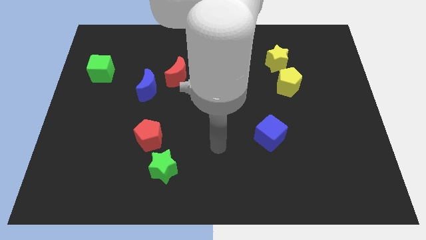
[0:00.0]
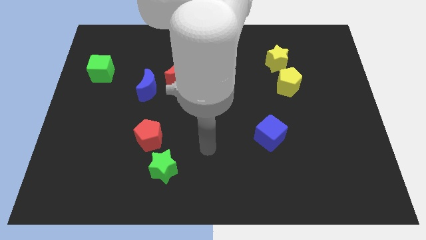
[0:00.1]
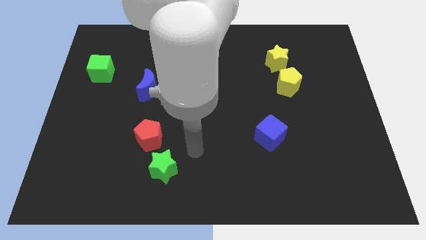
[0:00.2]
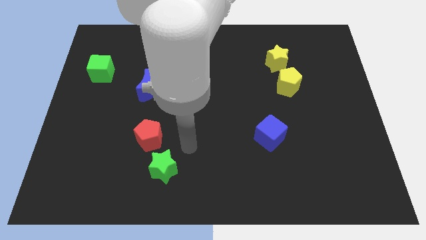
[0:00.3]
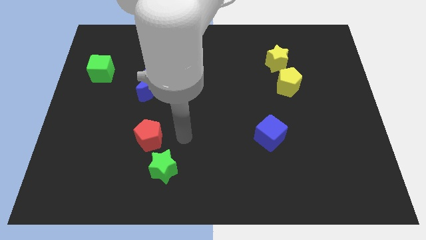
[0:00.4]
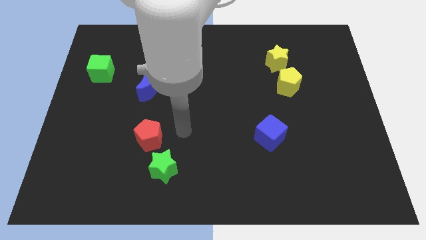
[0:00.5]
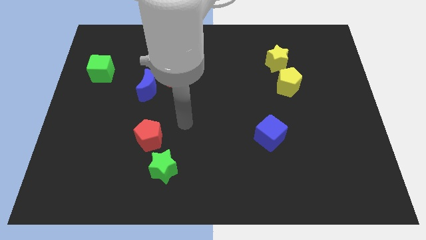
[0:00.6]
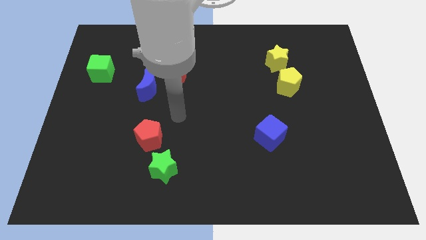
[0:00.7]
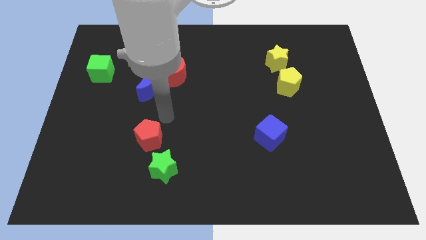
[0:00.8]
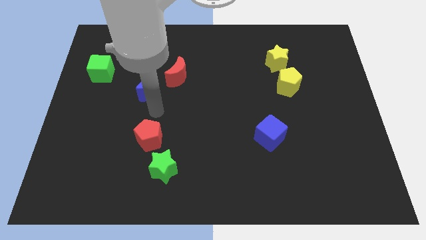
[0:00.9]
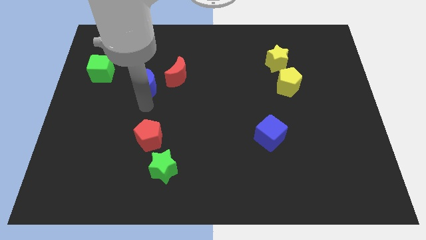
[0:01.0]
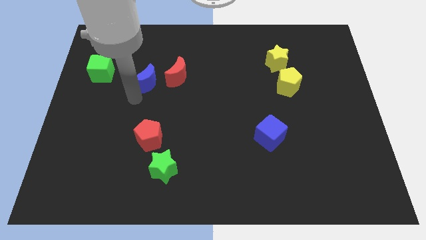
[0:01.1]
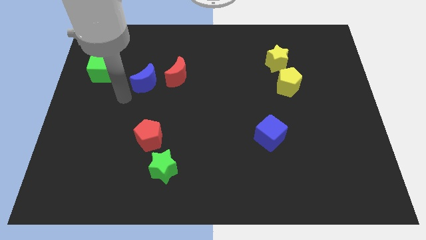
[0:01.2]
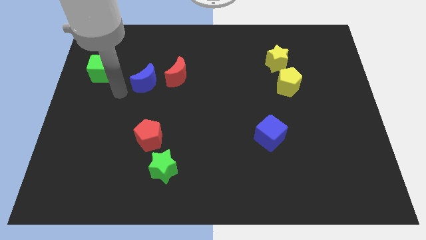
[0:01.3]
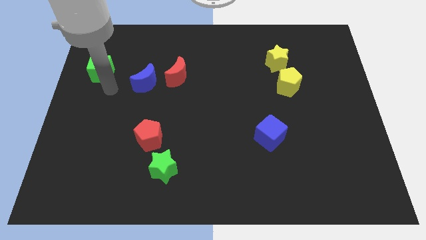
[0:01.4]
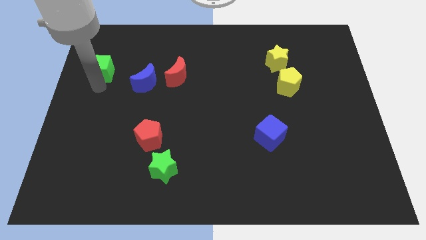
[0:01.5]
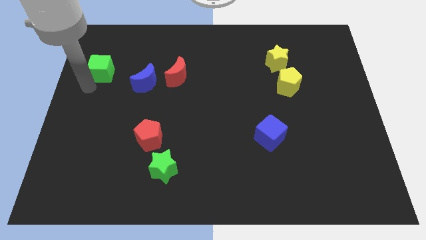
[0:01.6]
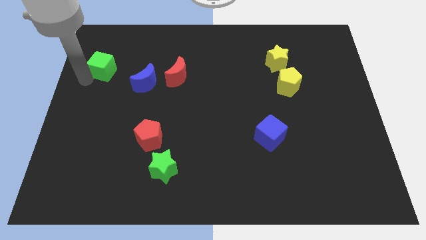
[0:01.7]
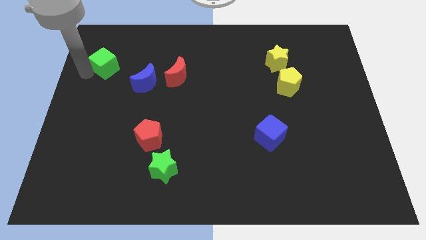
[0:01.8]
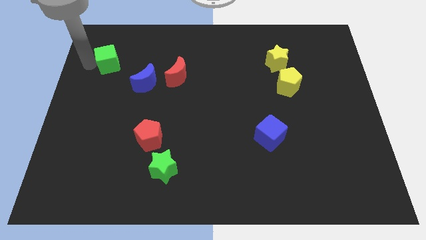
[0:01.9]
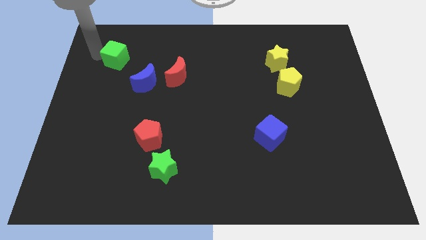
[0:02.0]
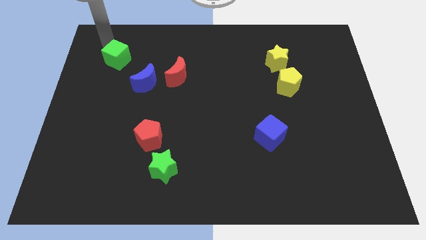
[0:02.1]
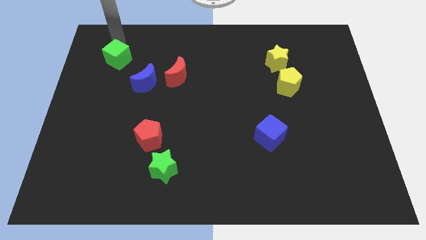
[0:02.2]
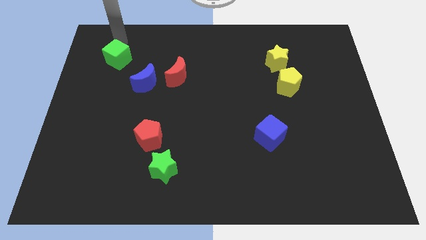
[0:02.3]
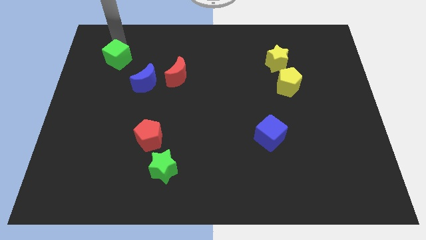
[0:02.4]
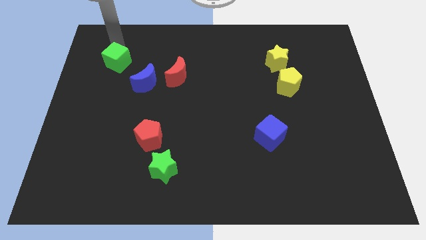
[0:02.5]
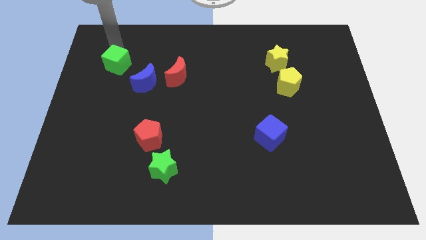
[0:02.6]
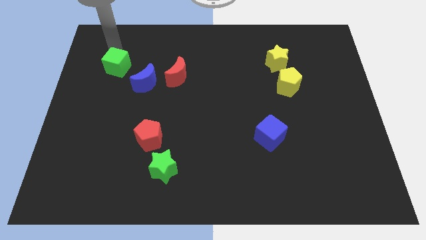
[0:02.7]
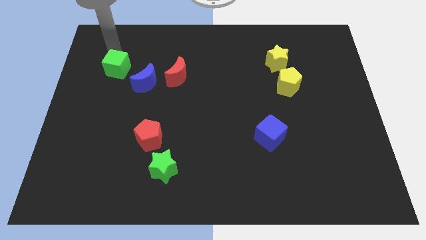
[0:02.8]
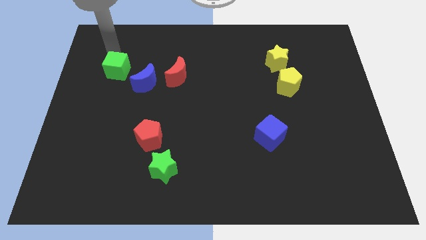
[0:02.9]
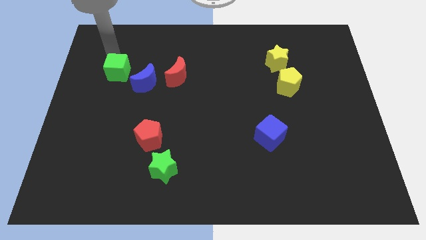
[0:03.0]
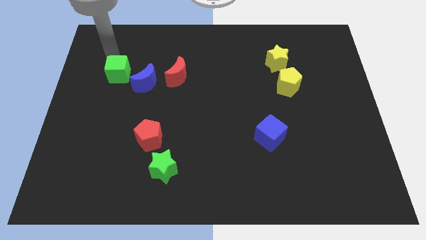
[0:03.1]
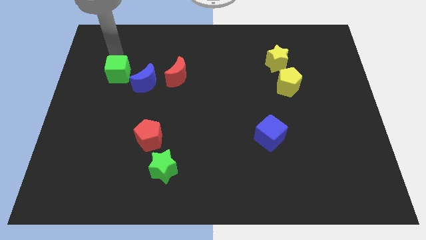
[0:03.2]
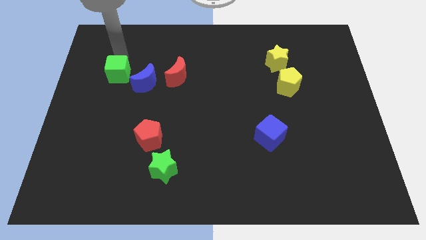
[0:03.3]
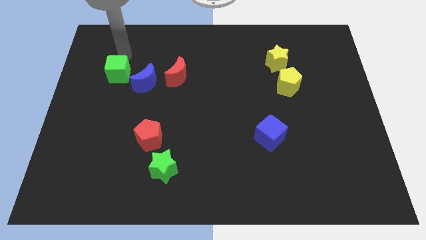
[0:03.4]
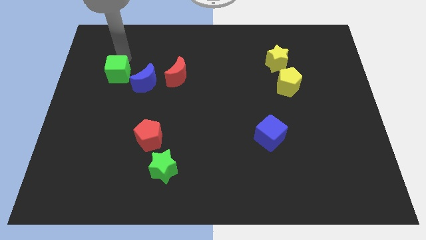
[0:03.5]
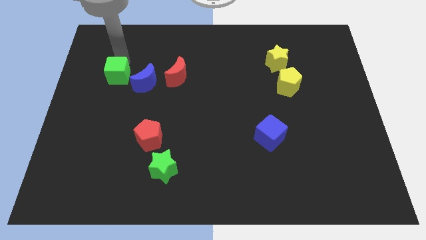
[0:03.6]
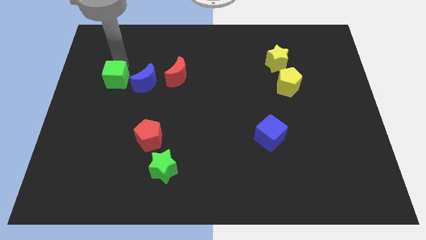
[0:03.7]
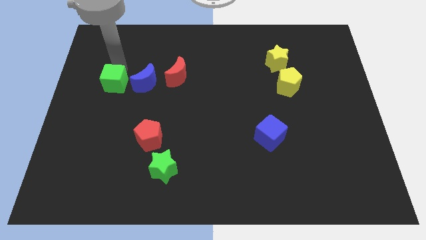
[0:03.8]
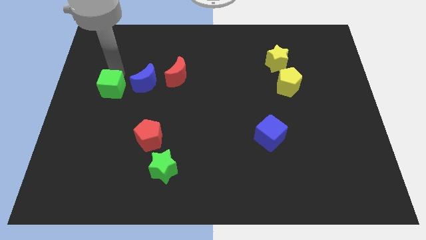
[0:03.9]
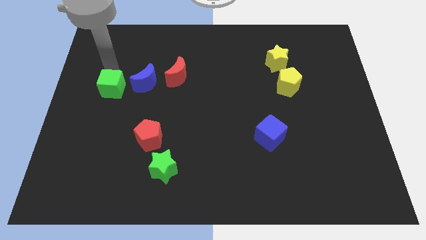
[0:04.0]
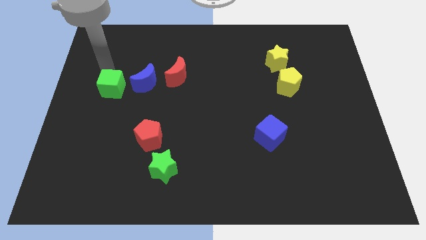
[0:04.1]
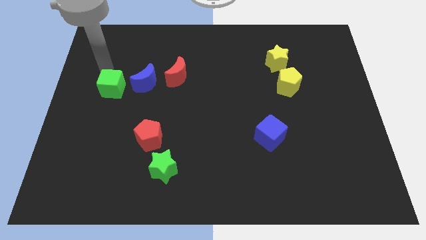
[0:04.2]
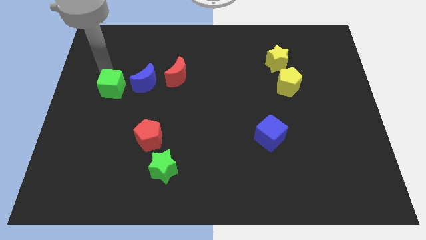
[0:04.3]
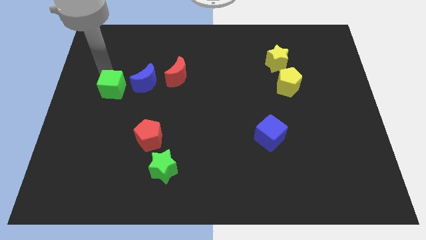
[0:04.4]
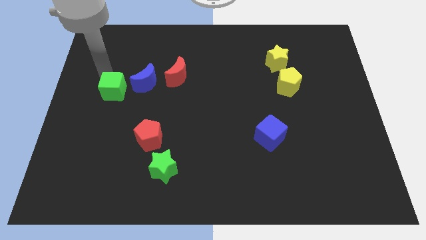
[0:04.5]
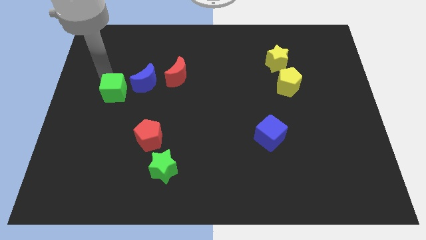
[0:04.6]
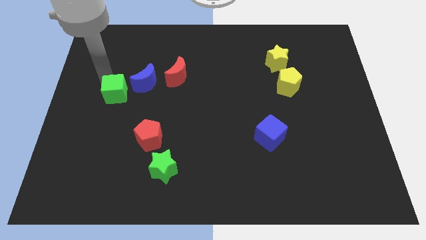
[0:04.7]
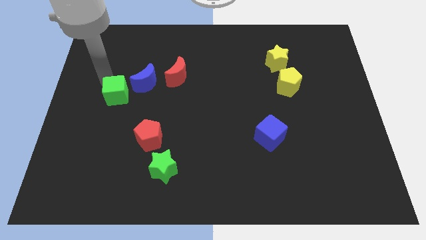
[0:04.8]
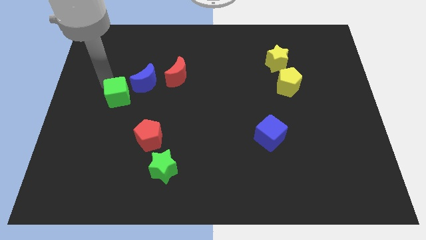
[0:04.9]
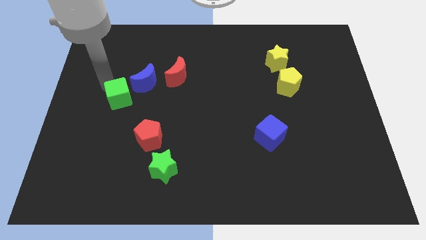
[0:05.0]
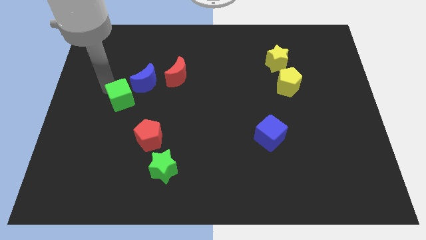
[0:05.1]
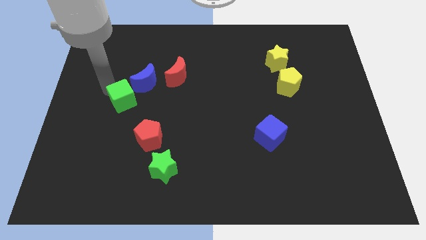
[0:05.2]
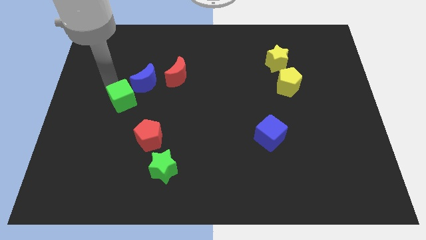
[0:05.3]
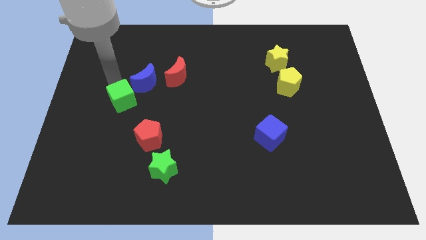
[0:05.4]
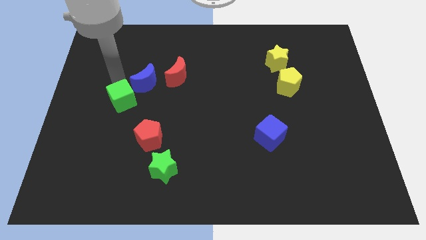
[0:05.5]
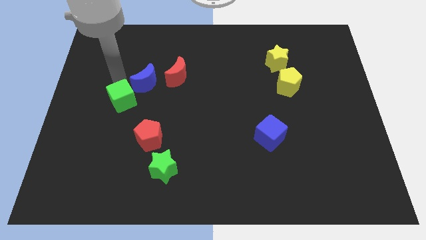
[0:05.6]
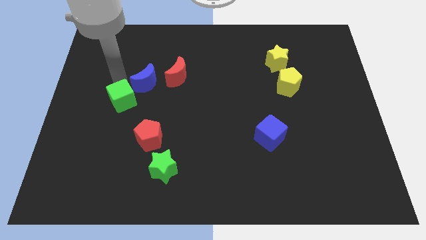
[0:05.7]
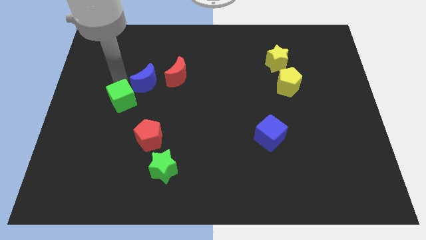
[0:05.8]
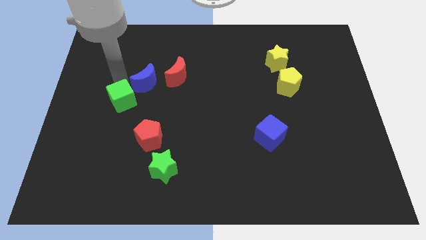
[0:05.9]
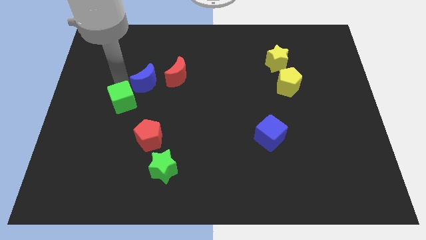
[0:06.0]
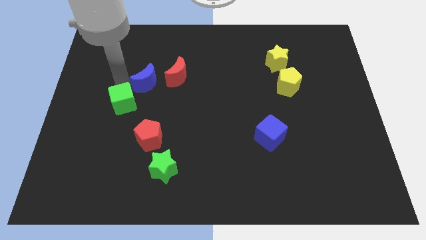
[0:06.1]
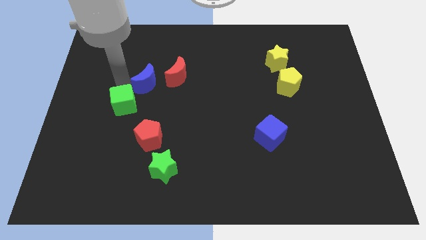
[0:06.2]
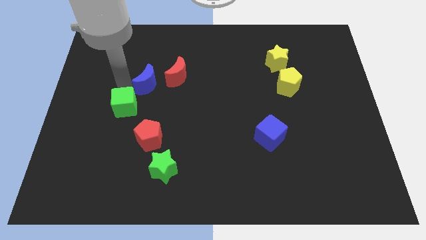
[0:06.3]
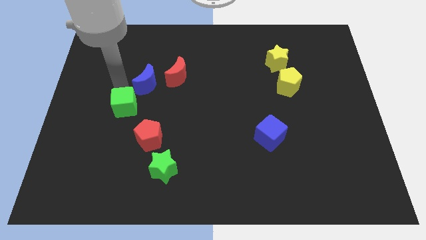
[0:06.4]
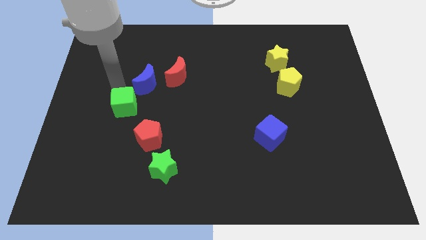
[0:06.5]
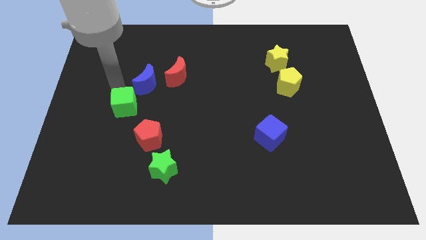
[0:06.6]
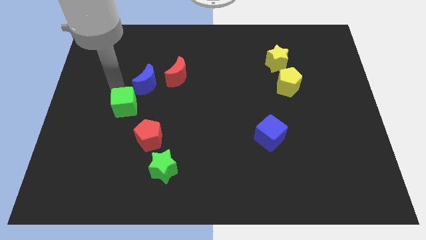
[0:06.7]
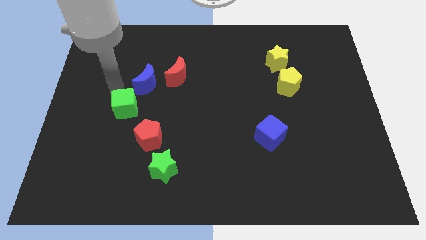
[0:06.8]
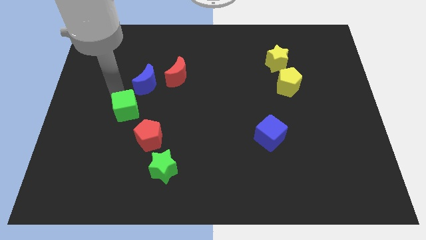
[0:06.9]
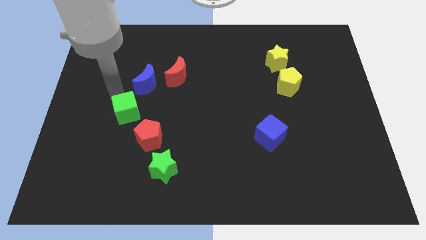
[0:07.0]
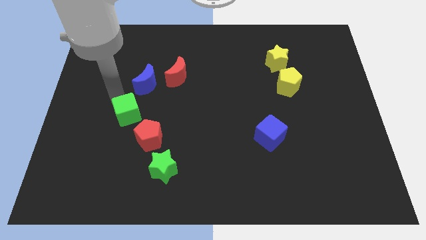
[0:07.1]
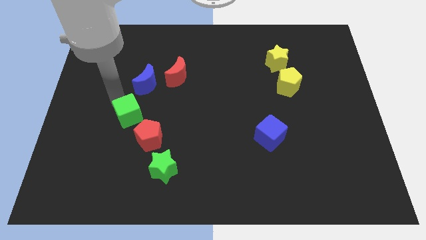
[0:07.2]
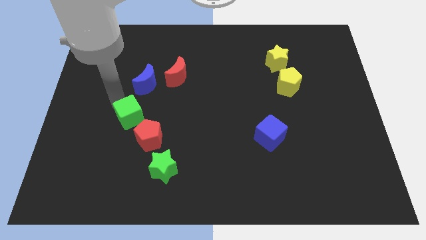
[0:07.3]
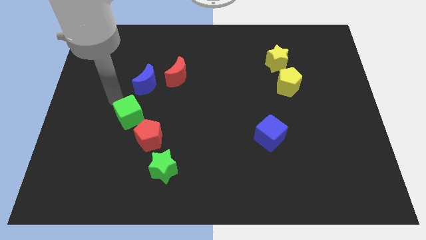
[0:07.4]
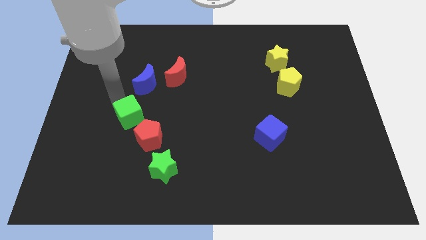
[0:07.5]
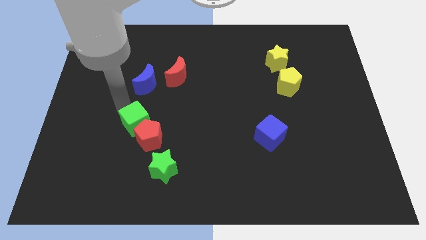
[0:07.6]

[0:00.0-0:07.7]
slide the green cube to the red pentagon
